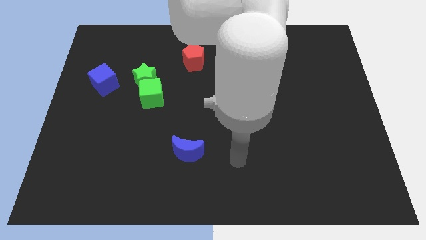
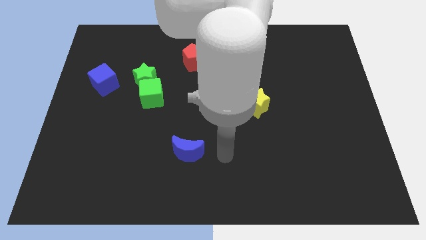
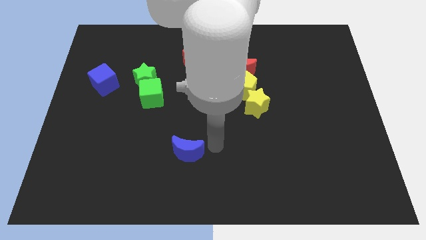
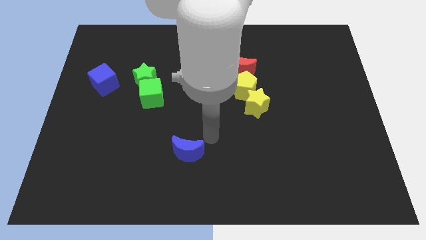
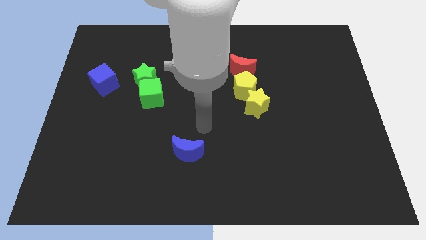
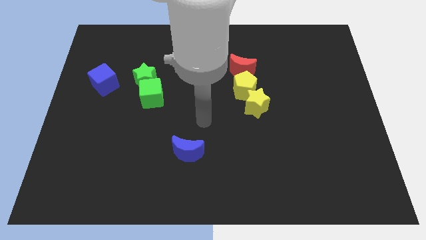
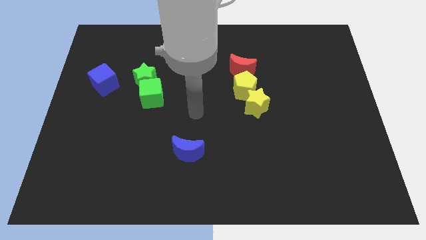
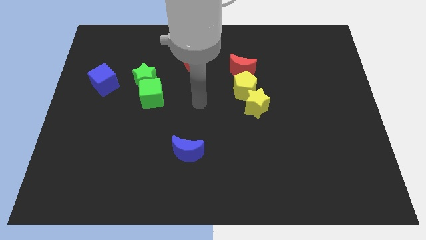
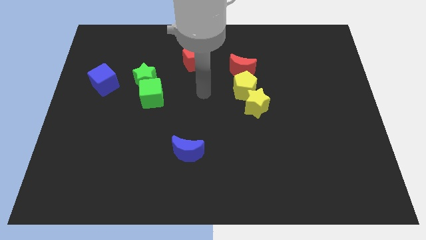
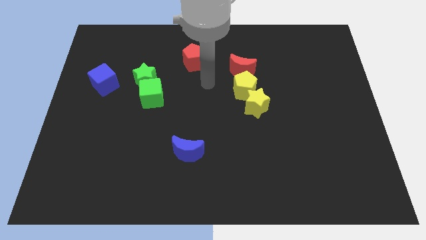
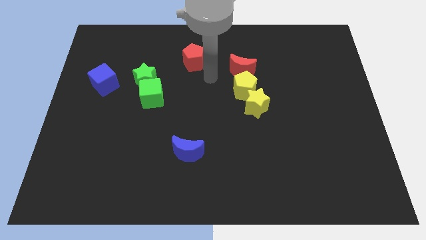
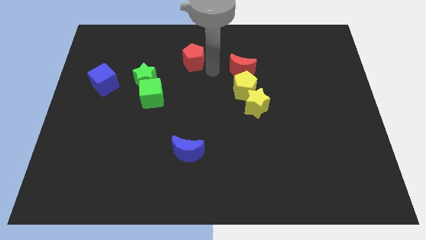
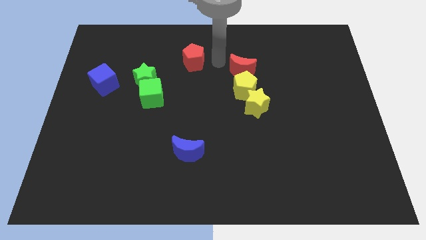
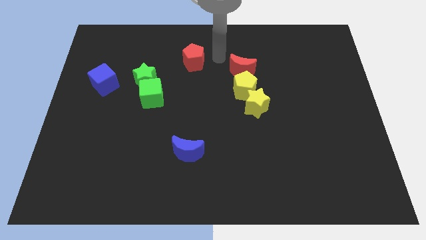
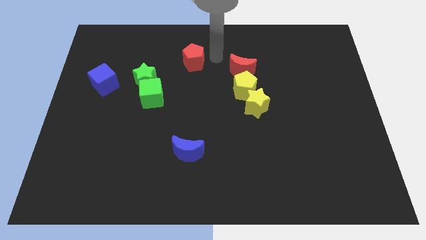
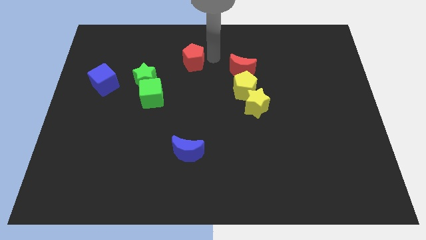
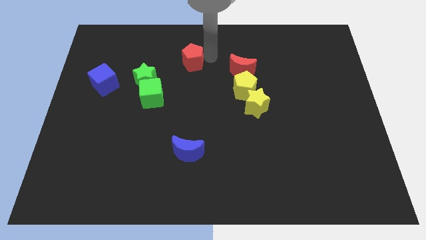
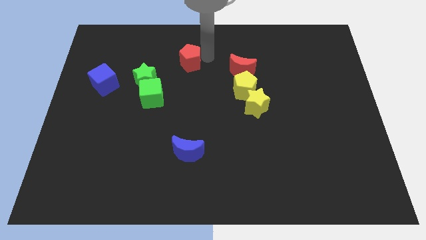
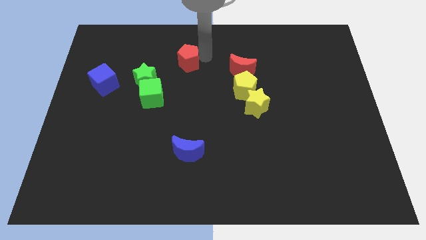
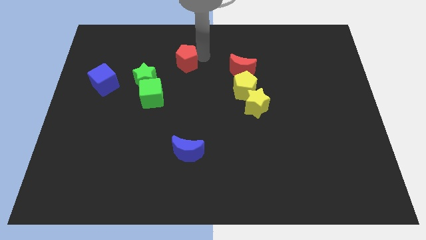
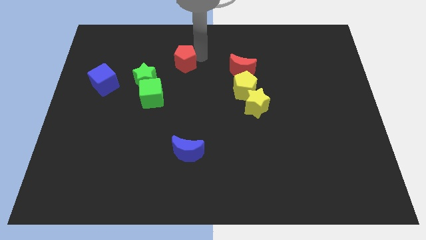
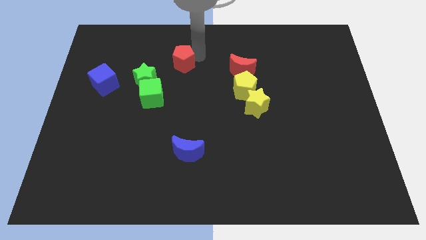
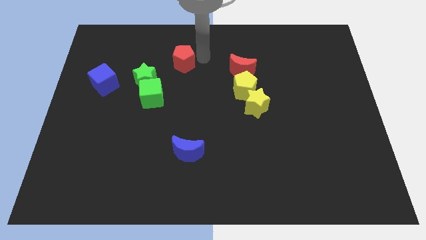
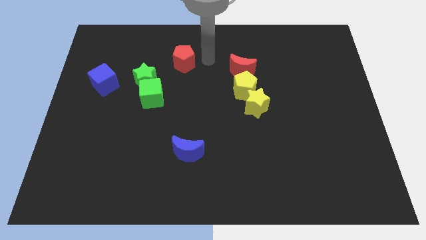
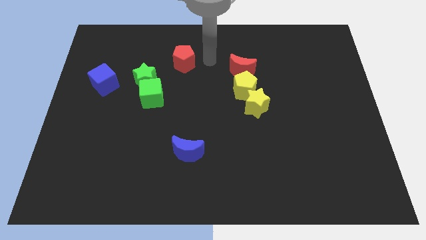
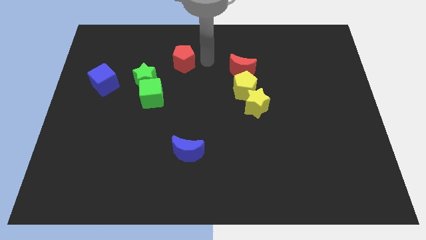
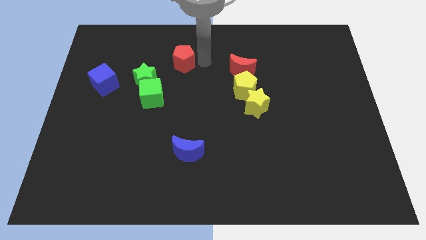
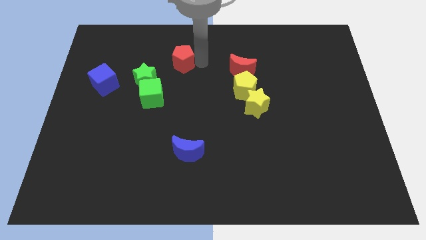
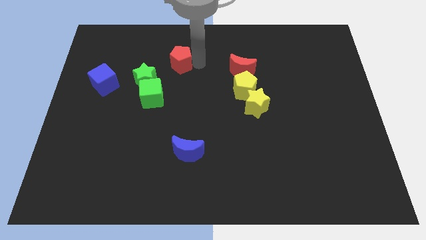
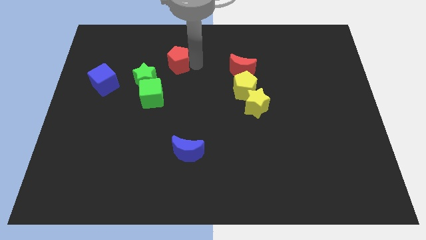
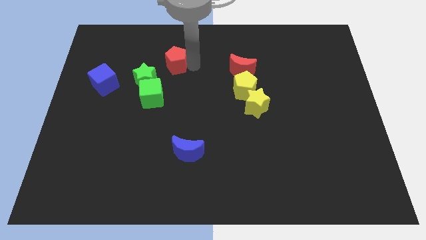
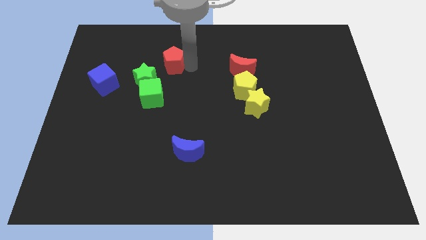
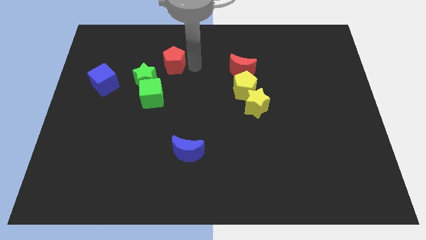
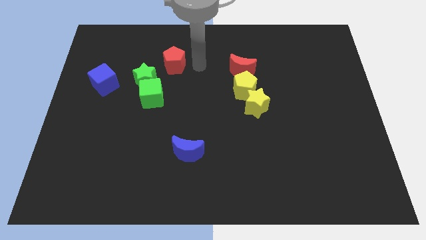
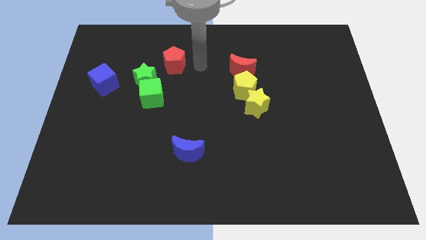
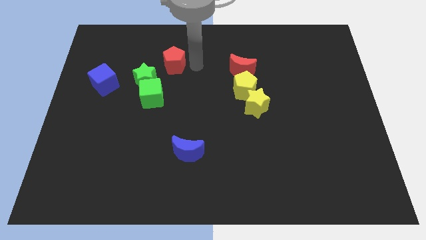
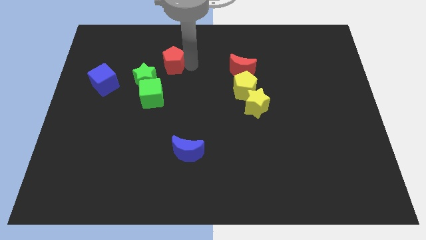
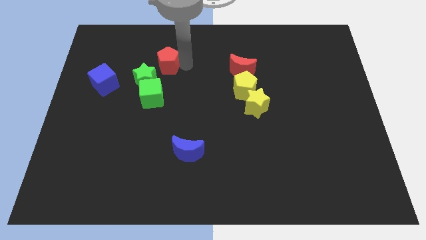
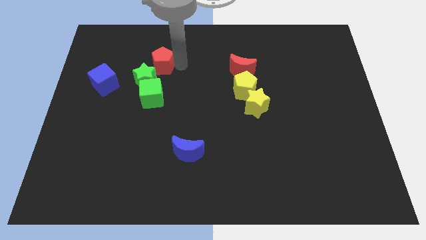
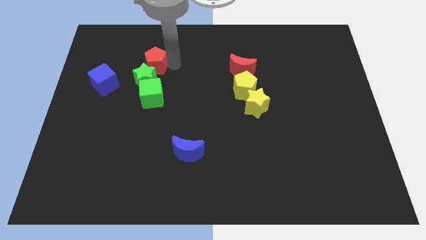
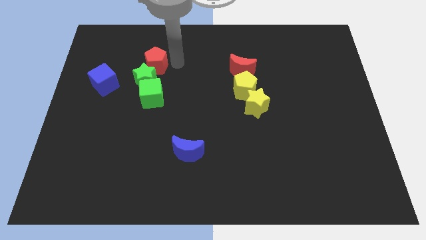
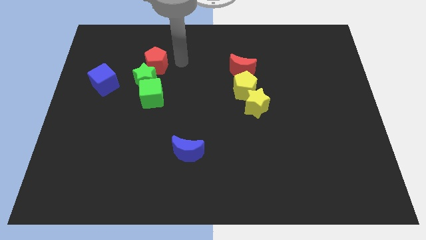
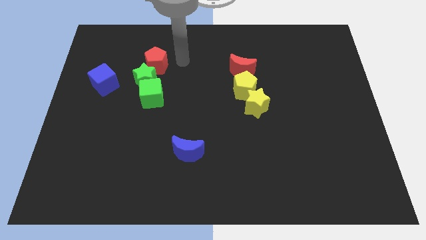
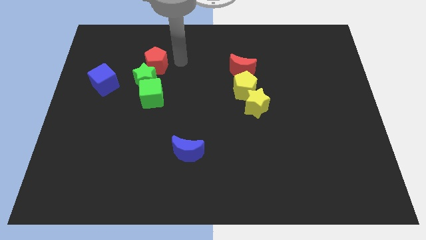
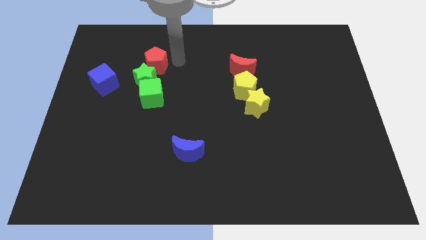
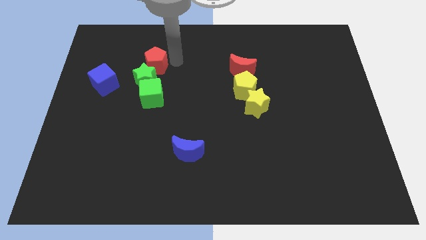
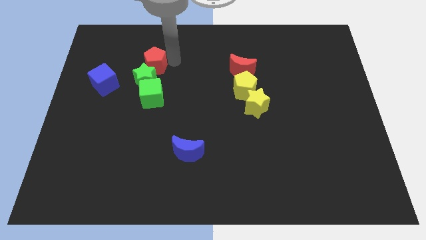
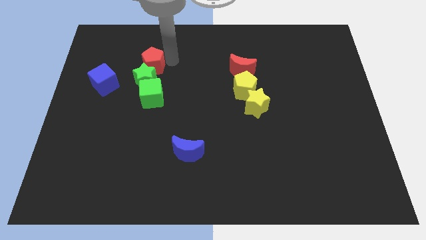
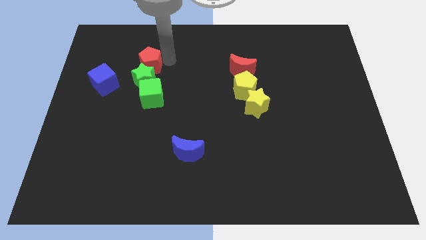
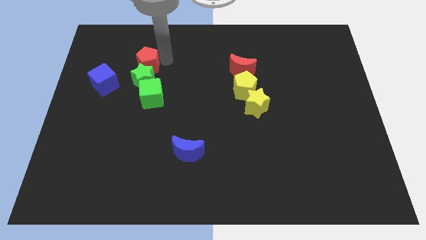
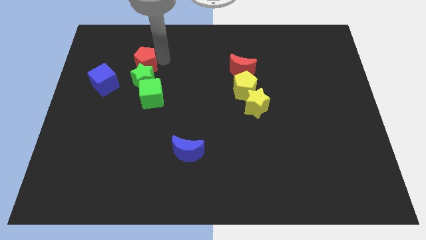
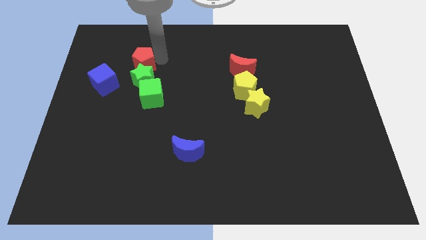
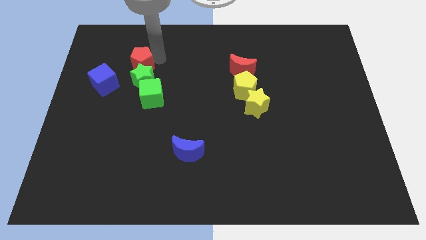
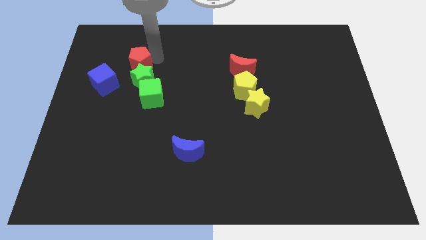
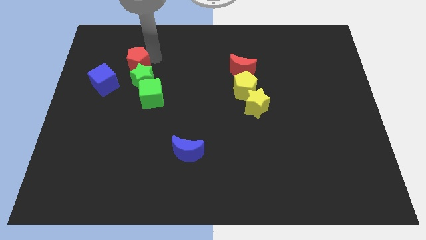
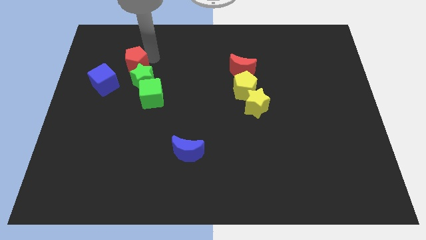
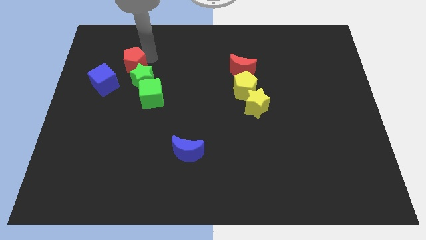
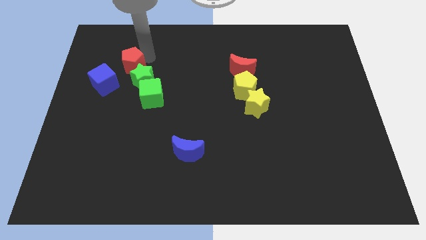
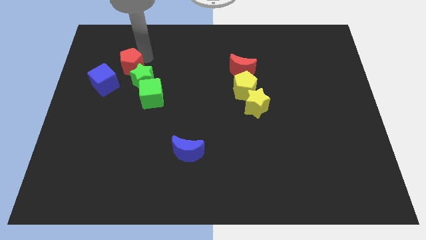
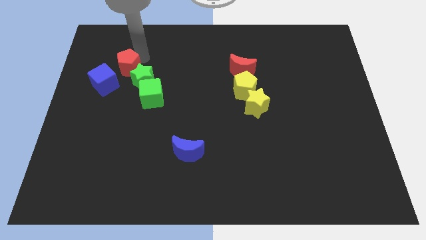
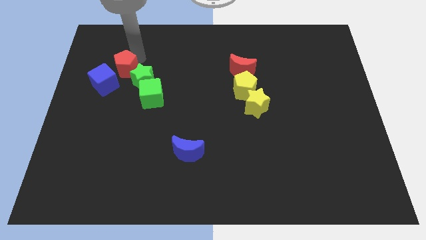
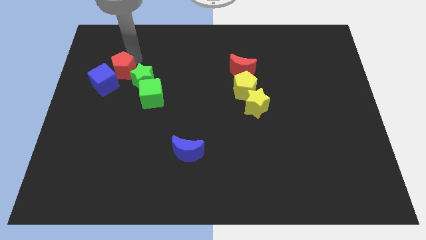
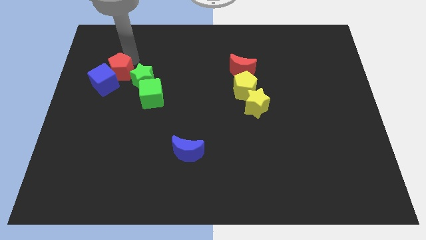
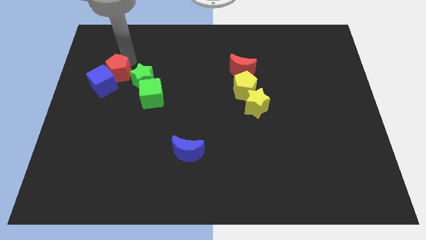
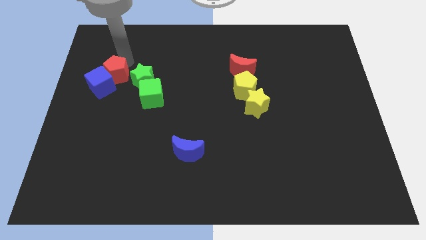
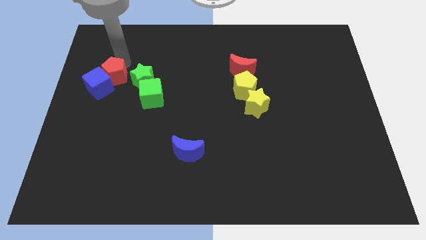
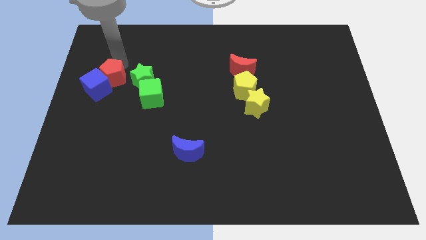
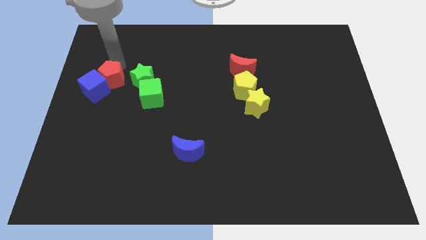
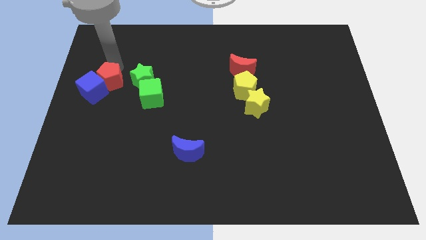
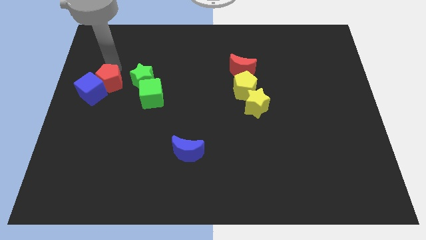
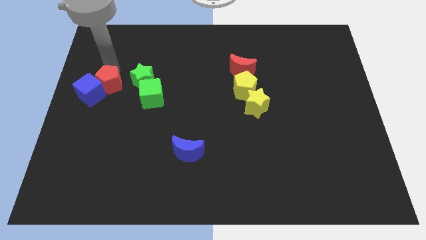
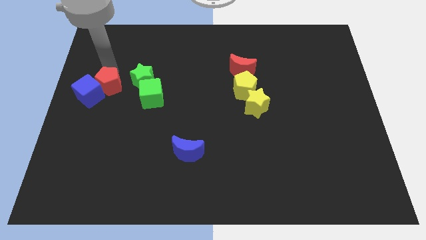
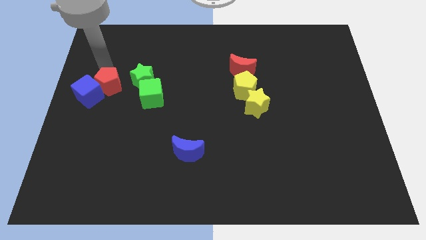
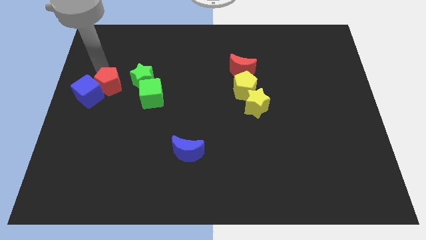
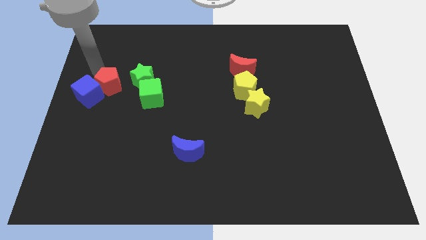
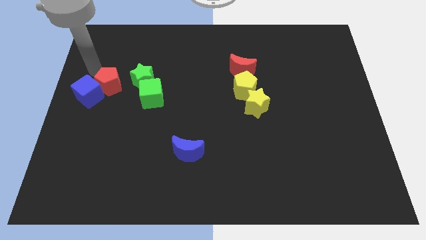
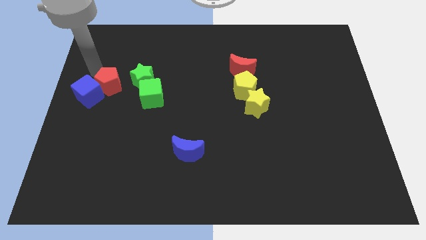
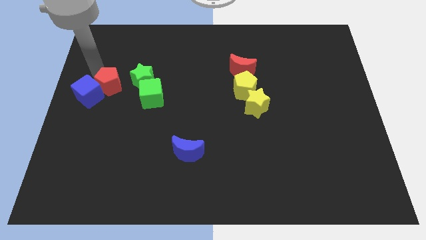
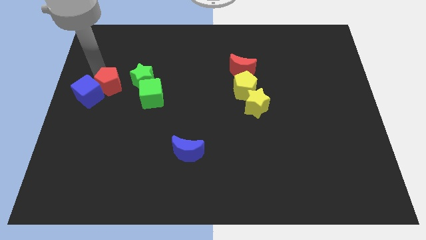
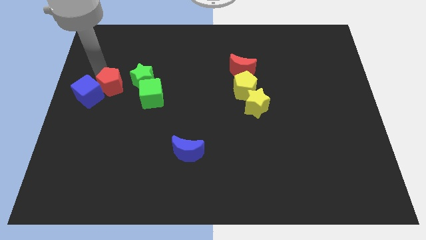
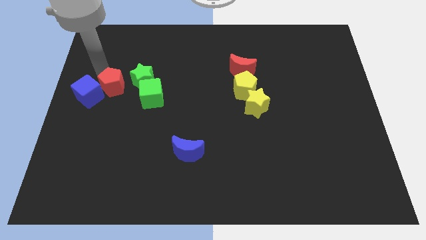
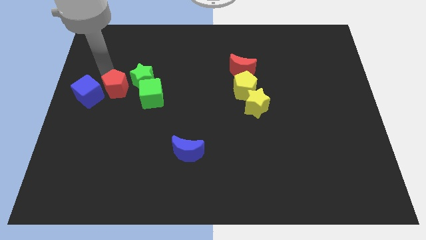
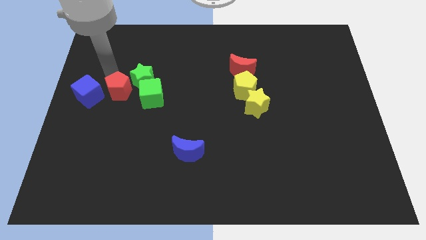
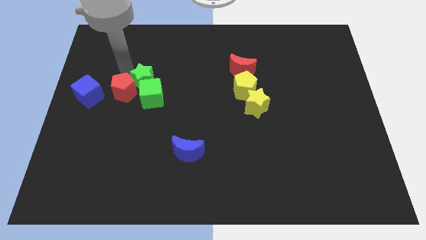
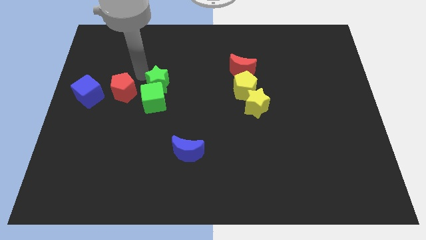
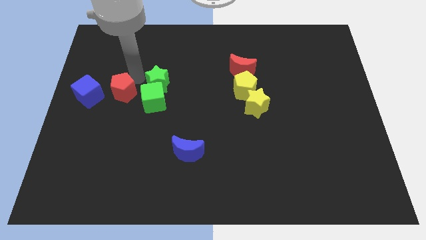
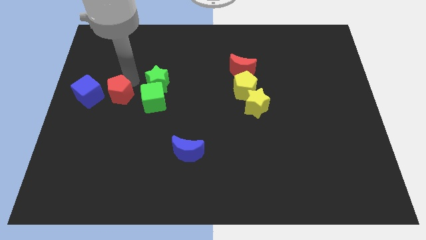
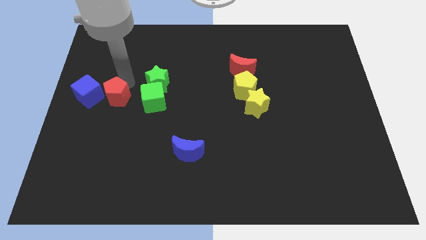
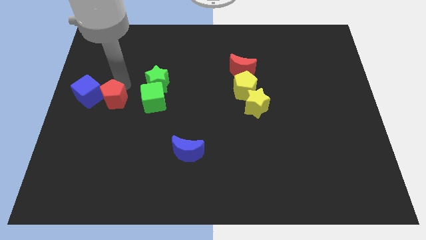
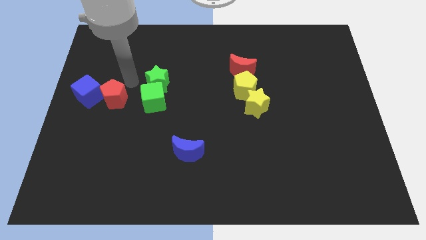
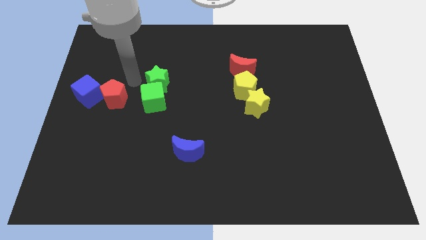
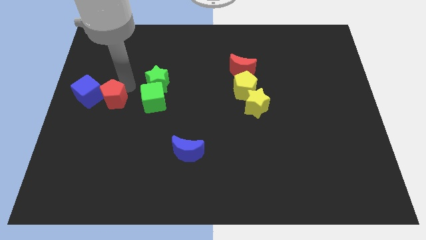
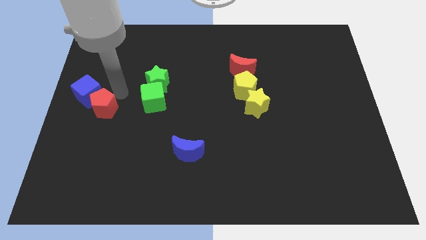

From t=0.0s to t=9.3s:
move the red pentagon below the blue cube
